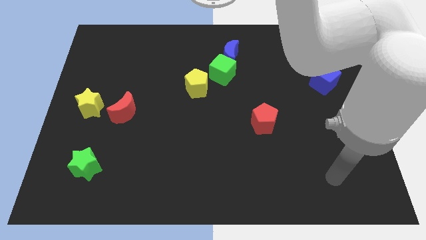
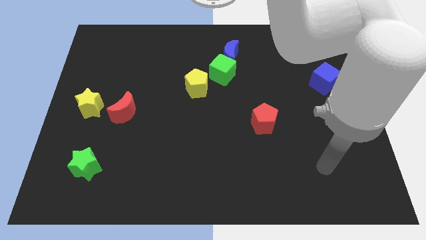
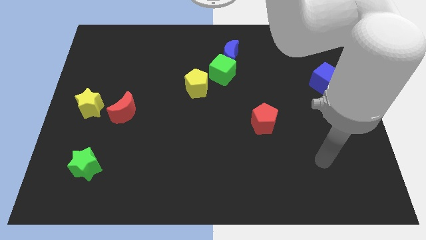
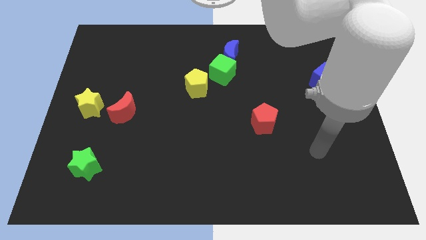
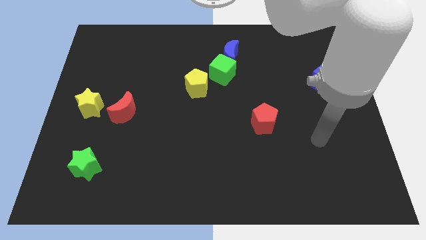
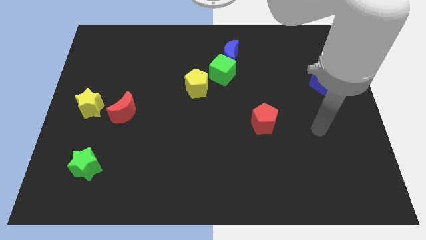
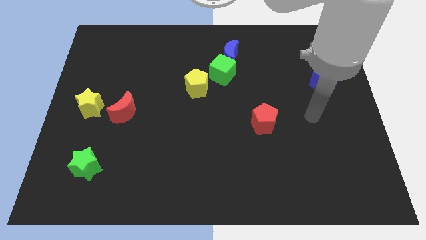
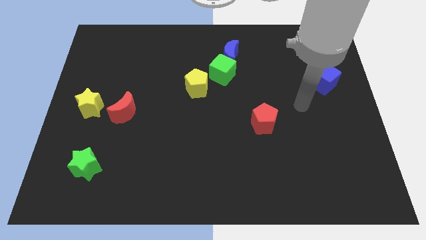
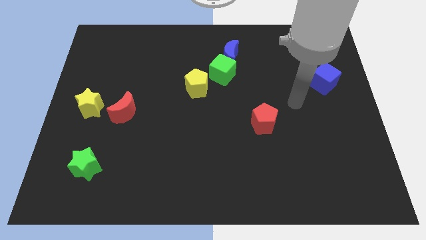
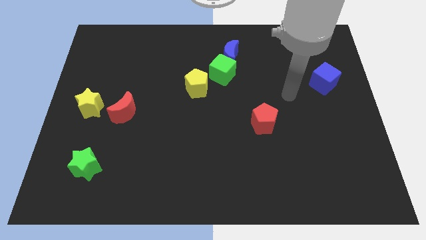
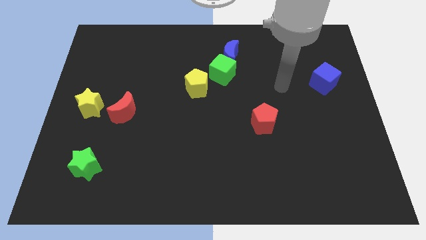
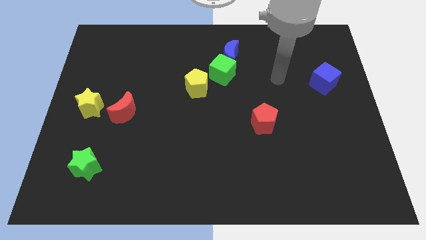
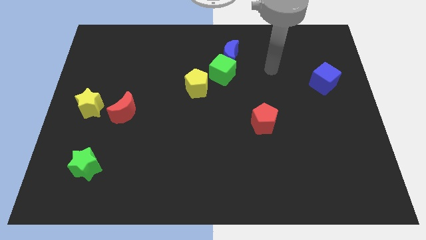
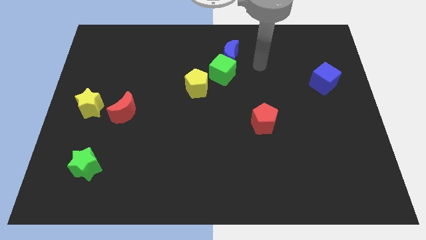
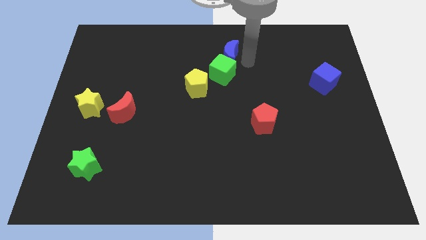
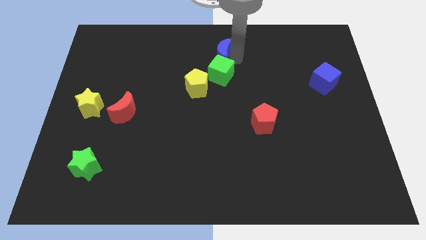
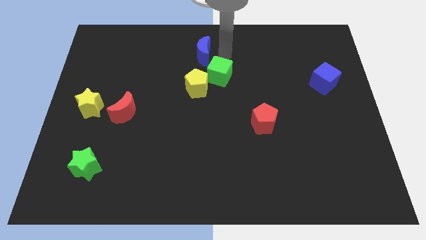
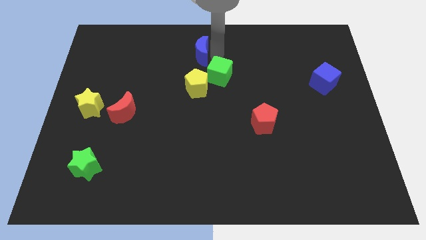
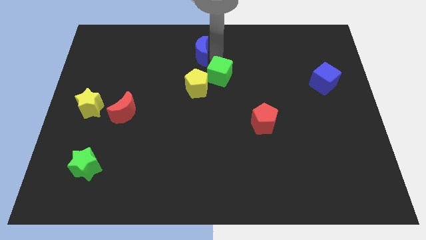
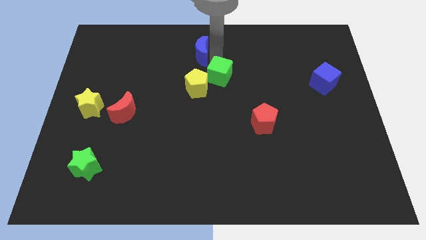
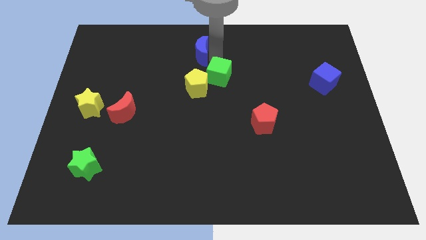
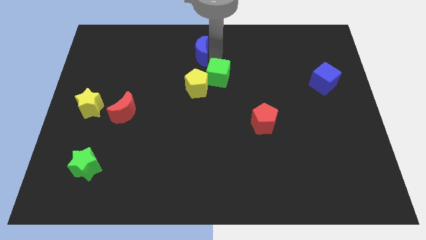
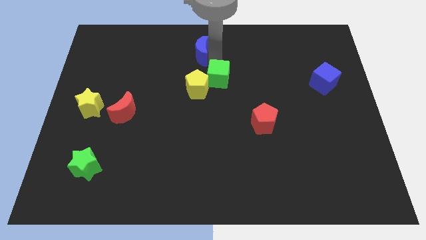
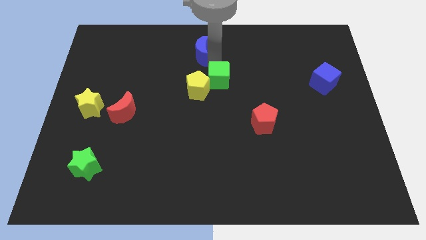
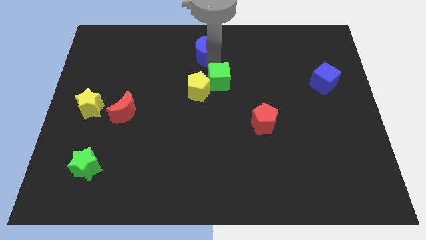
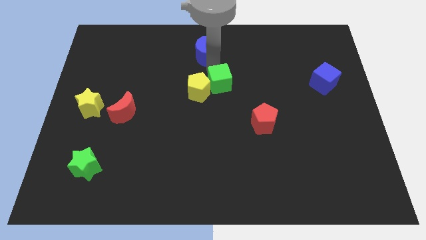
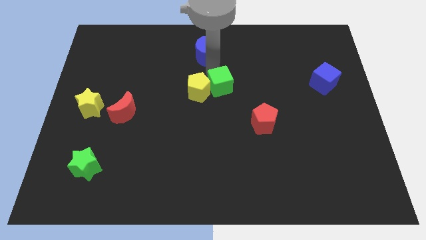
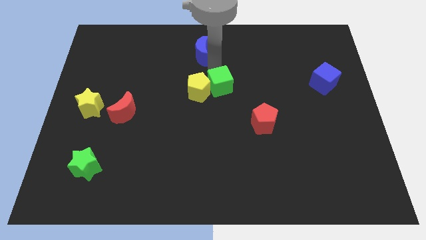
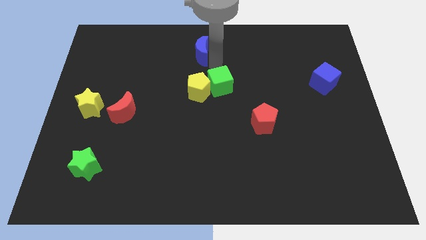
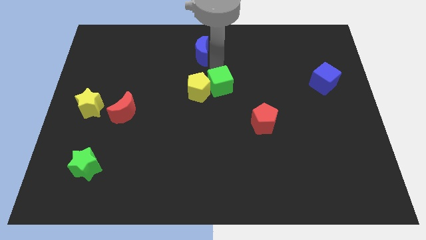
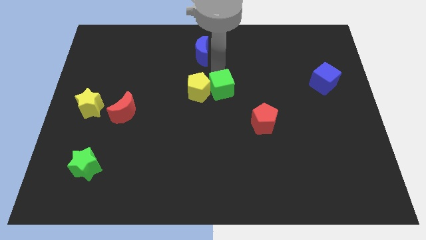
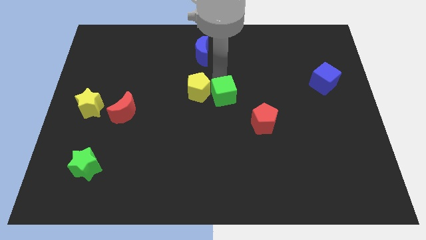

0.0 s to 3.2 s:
slide the green cube down a bit

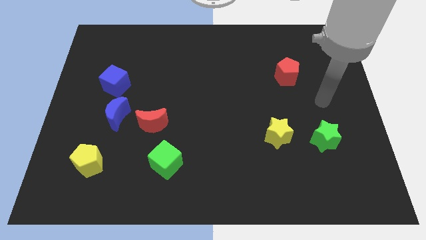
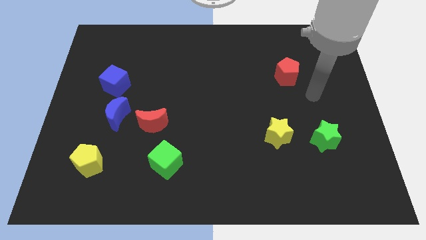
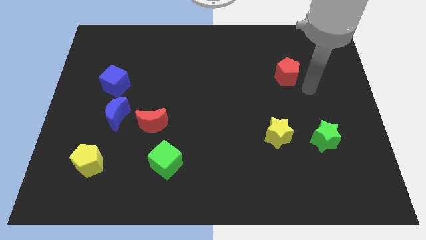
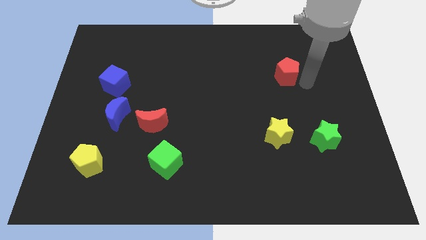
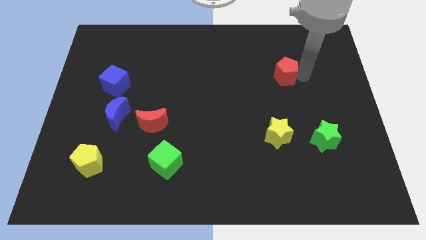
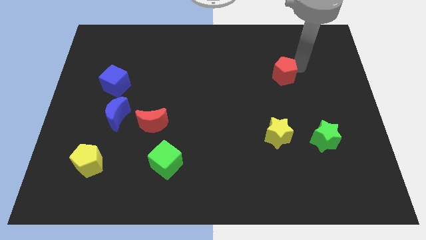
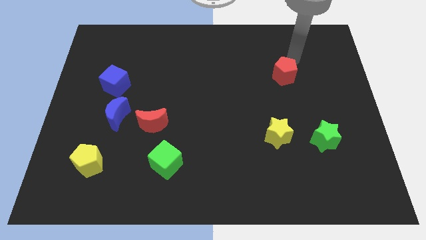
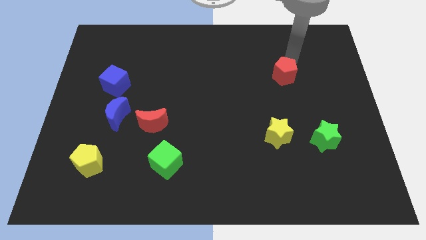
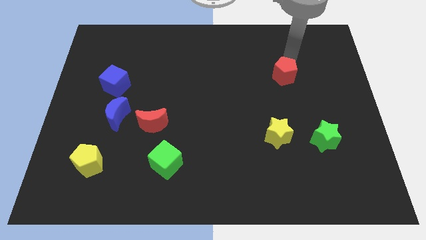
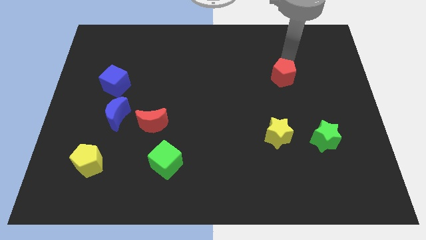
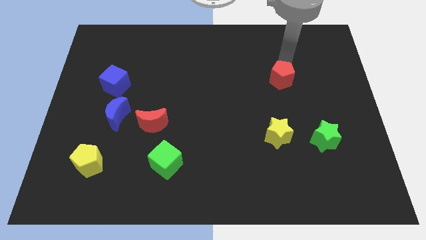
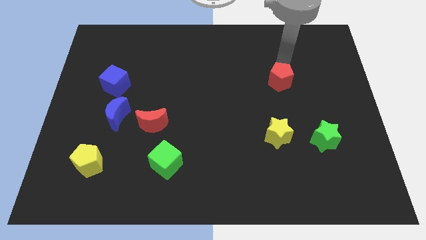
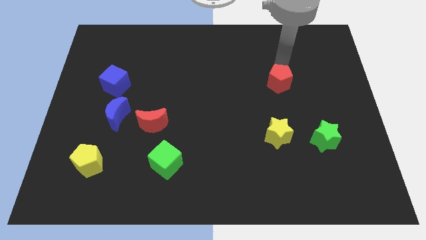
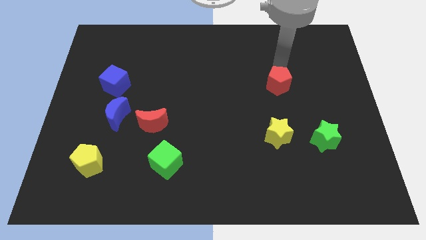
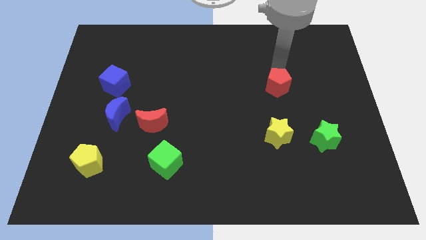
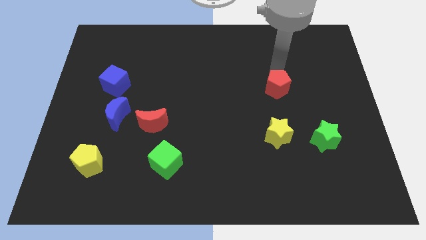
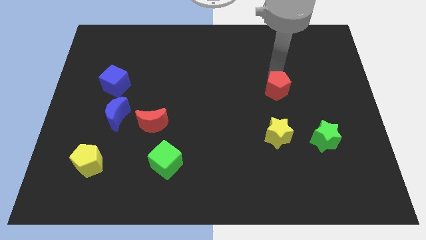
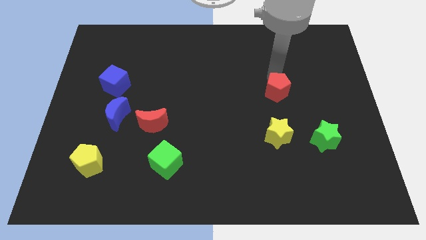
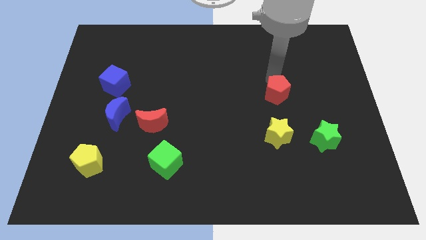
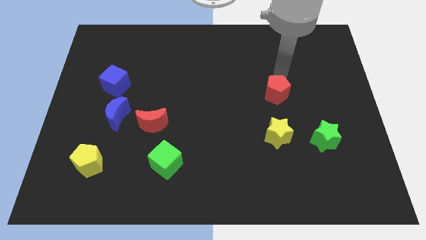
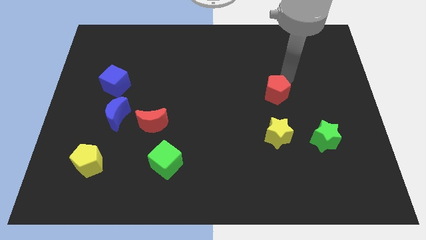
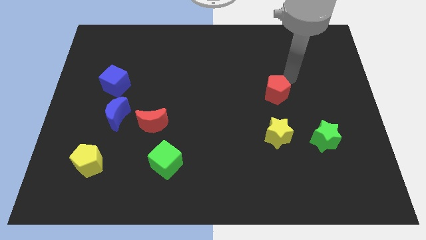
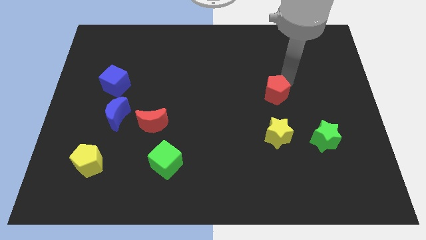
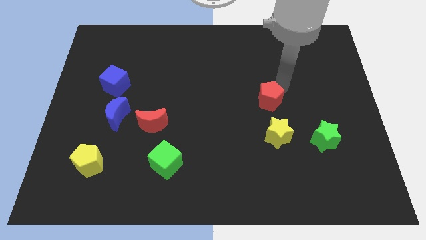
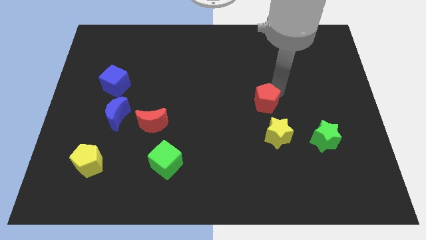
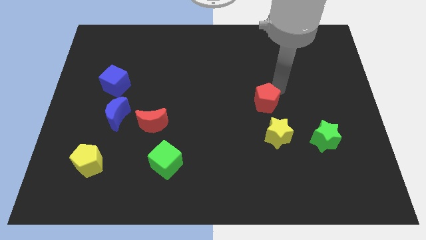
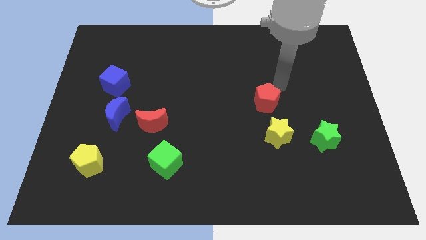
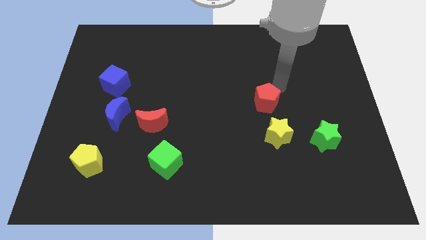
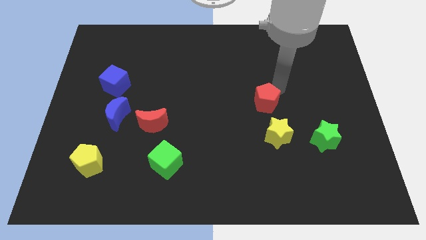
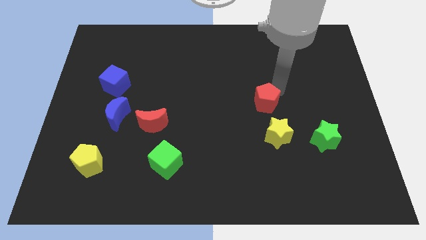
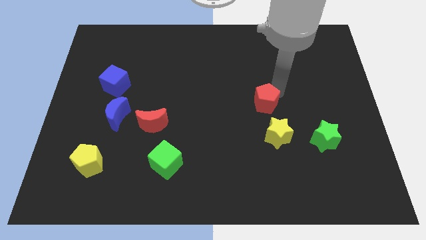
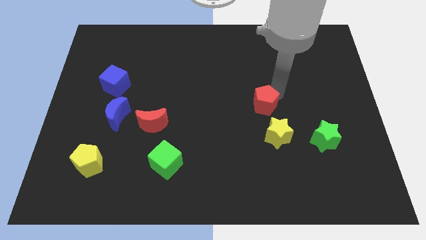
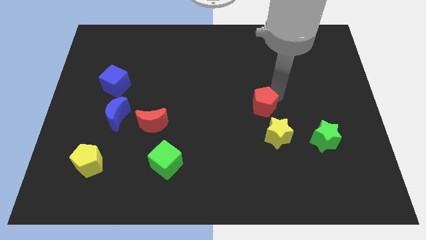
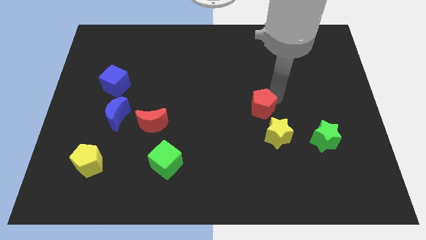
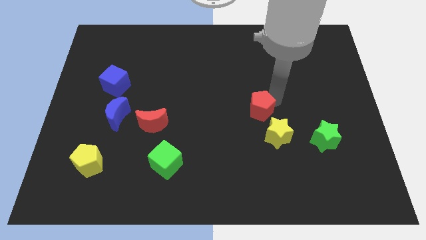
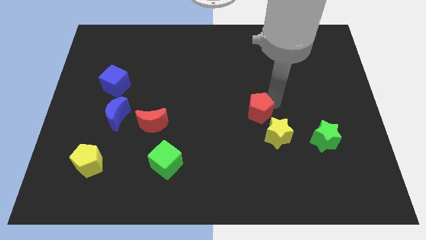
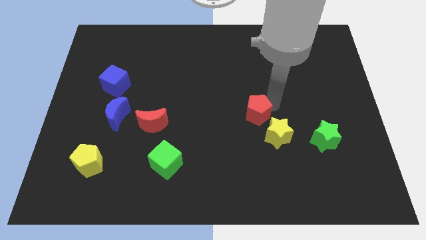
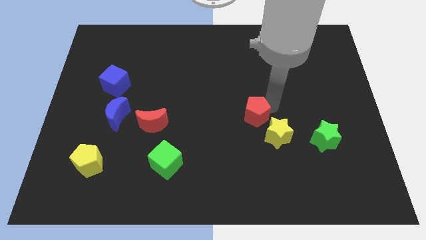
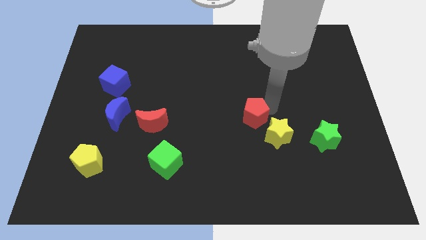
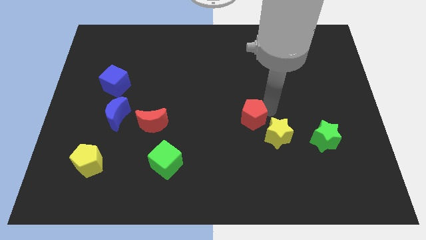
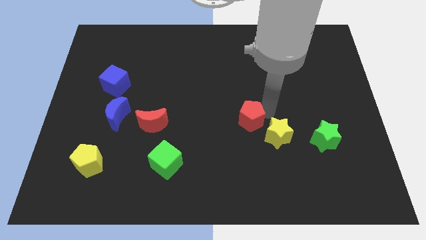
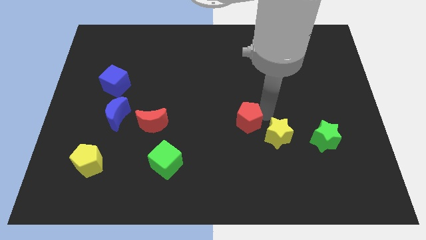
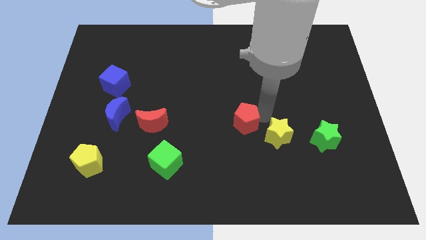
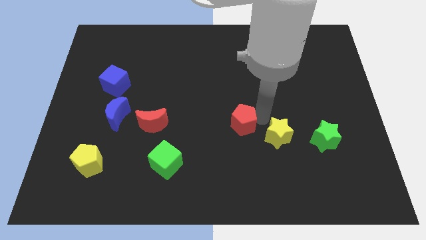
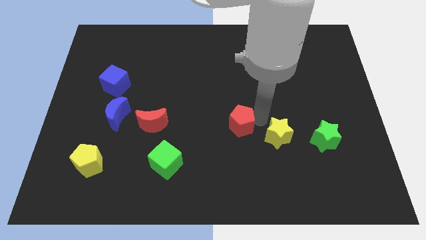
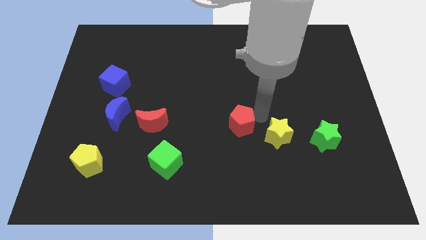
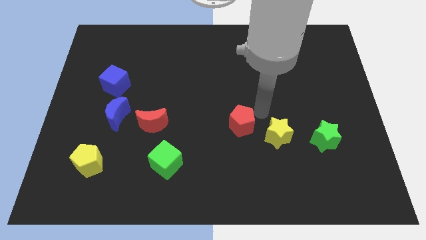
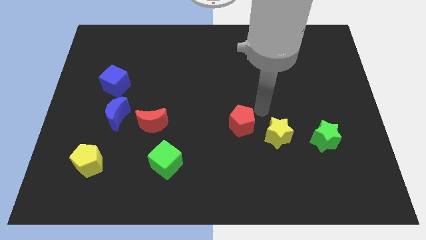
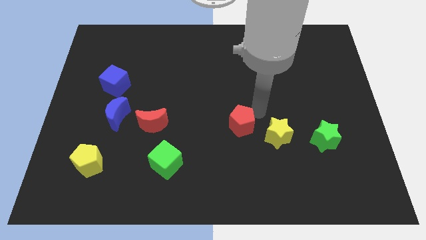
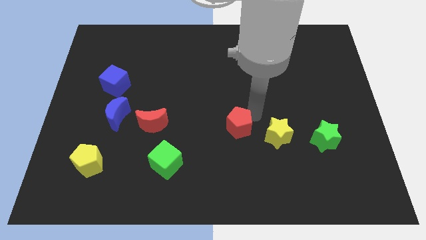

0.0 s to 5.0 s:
move the red pentagon down and then left
